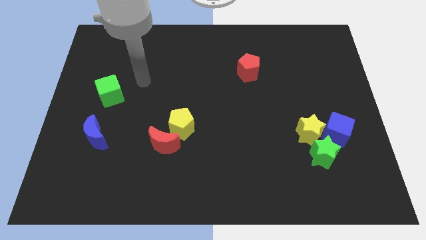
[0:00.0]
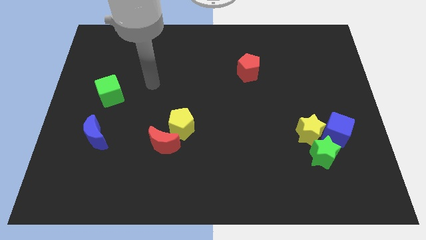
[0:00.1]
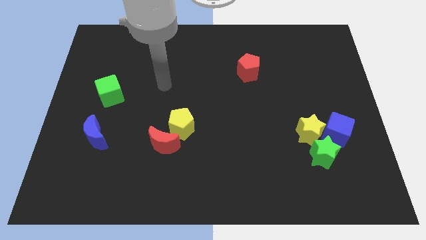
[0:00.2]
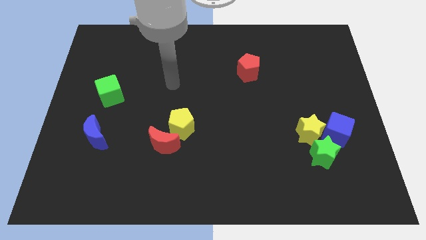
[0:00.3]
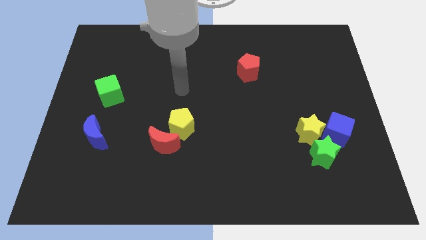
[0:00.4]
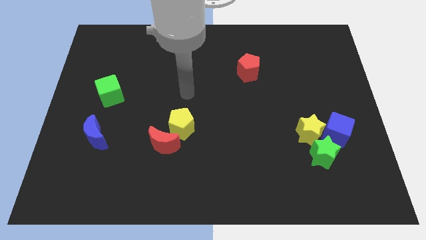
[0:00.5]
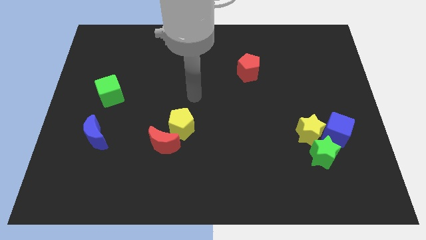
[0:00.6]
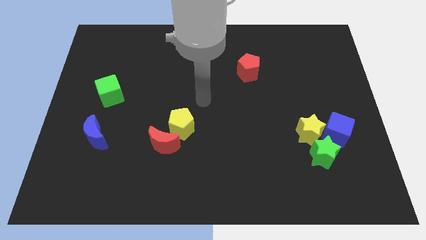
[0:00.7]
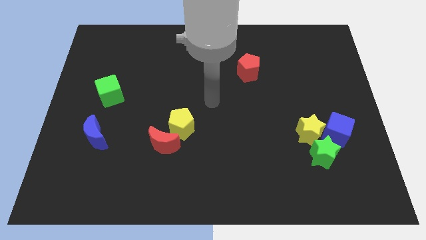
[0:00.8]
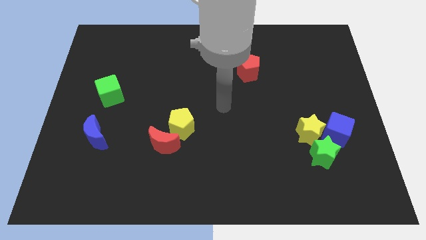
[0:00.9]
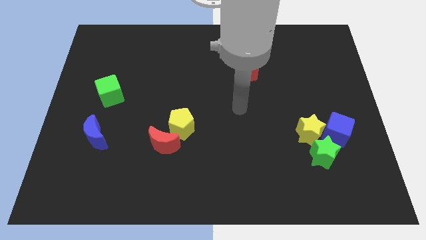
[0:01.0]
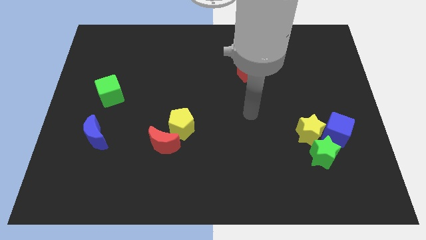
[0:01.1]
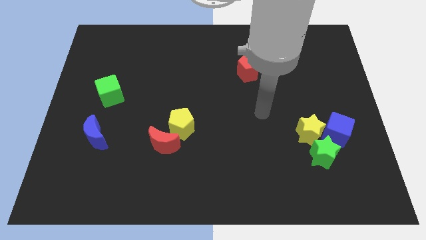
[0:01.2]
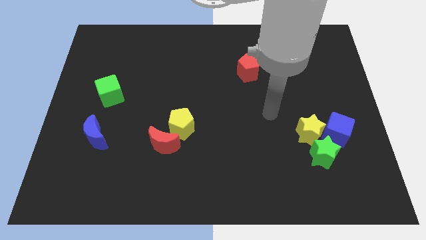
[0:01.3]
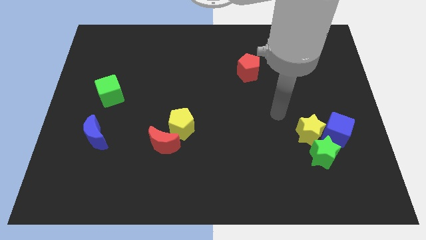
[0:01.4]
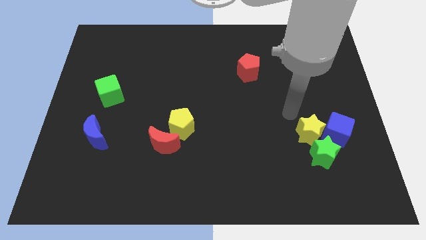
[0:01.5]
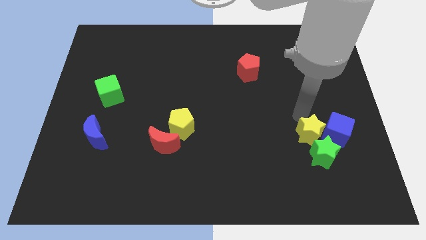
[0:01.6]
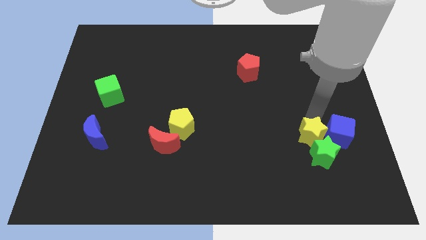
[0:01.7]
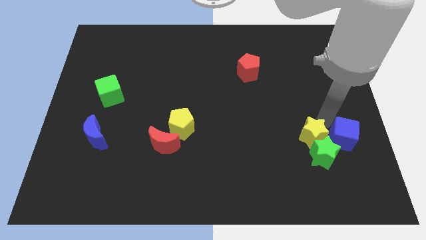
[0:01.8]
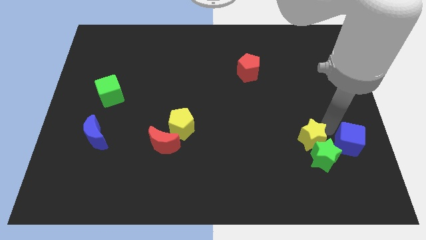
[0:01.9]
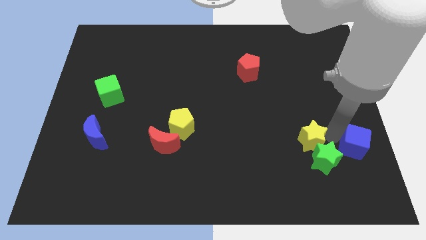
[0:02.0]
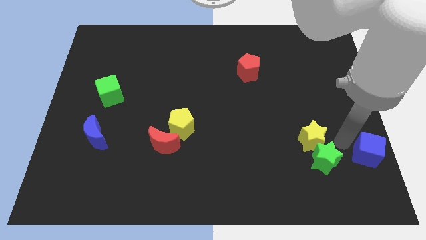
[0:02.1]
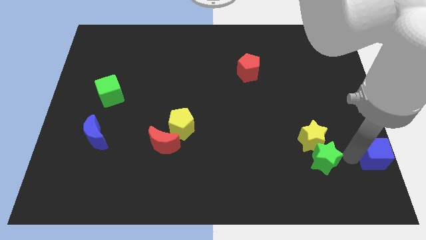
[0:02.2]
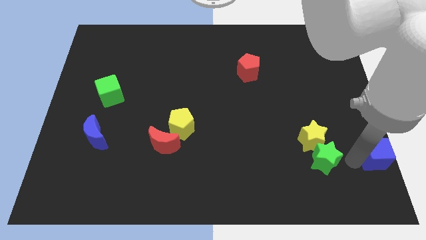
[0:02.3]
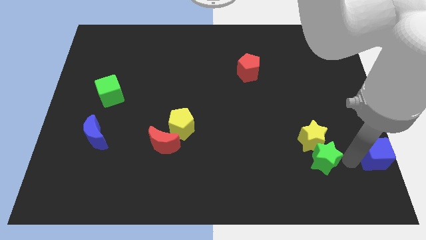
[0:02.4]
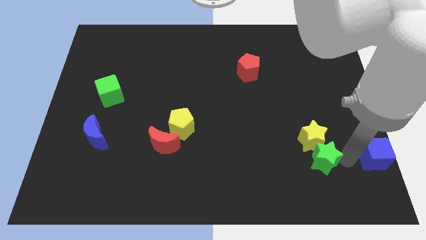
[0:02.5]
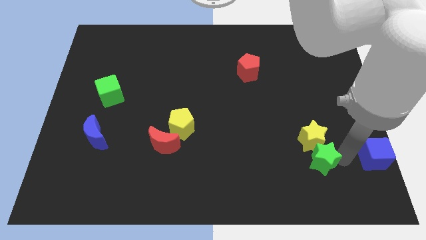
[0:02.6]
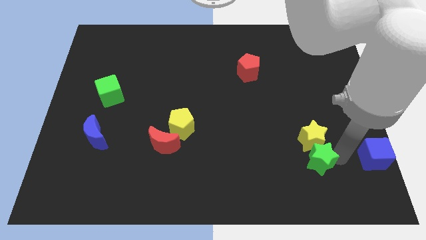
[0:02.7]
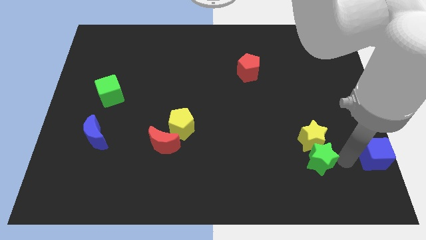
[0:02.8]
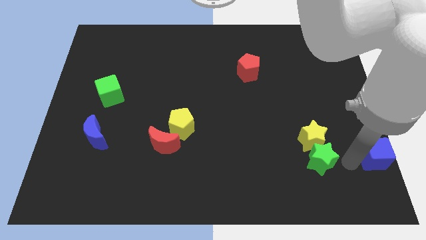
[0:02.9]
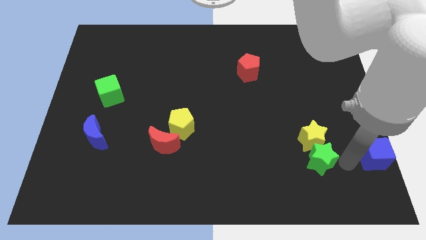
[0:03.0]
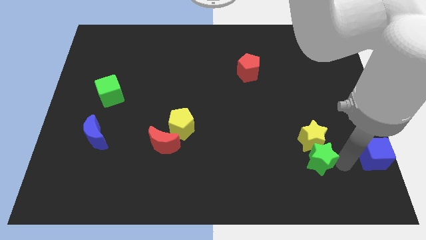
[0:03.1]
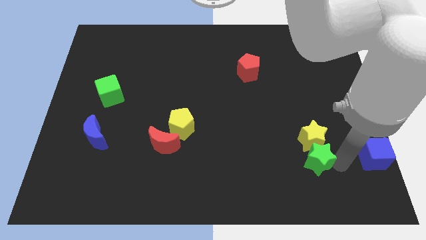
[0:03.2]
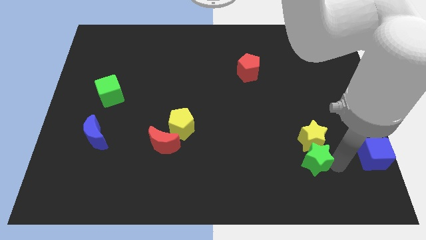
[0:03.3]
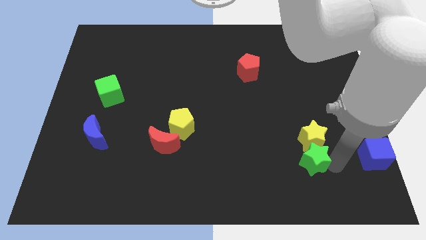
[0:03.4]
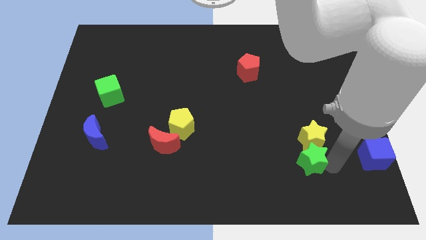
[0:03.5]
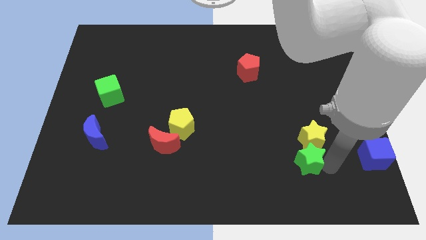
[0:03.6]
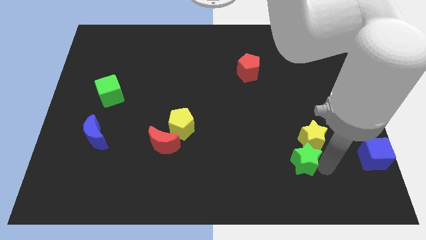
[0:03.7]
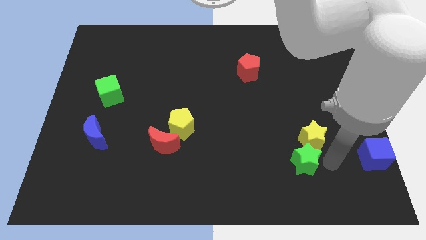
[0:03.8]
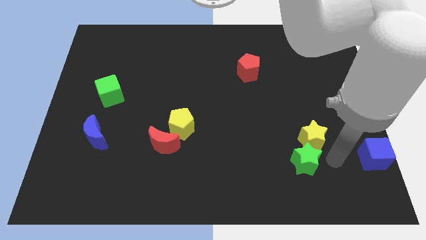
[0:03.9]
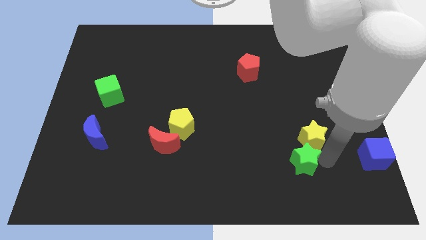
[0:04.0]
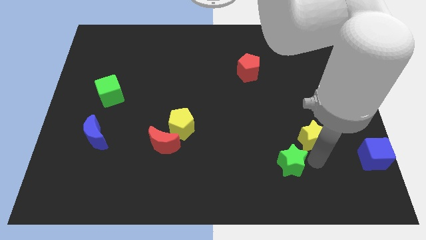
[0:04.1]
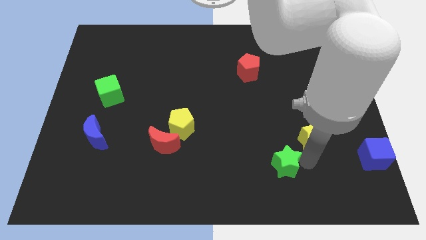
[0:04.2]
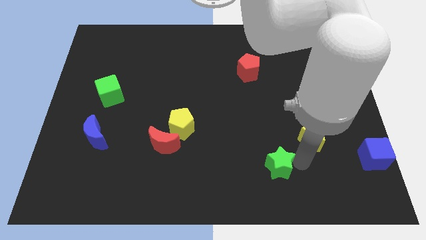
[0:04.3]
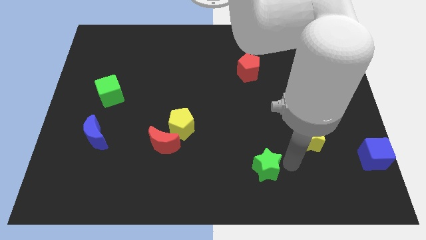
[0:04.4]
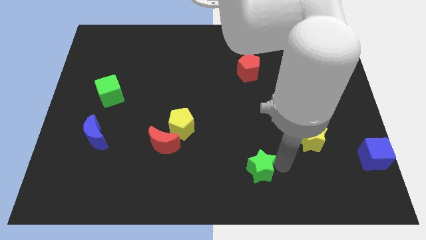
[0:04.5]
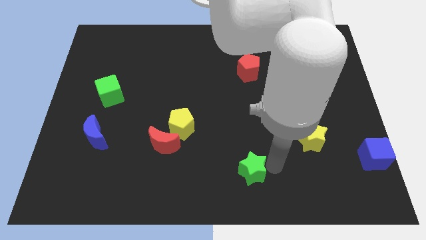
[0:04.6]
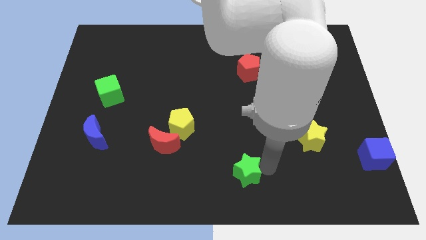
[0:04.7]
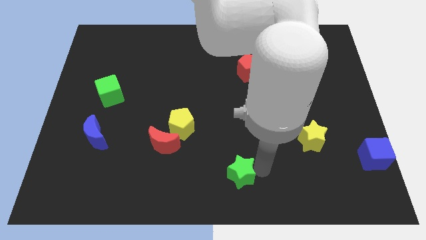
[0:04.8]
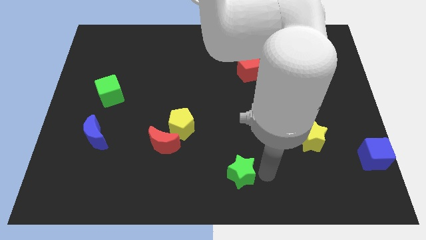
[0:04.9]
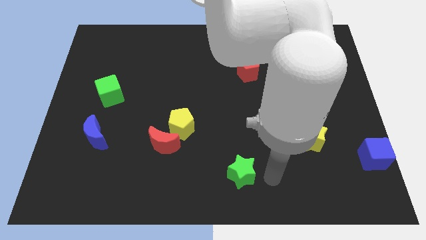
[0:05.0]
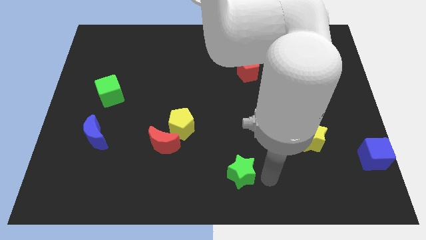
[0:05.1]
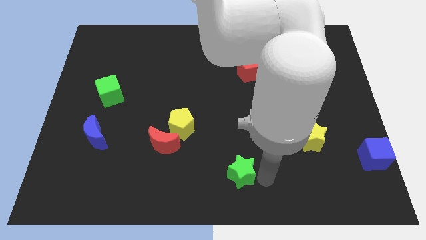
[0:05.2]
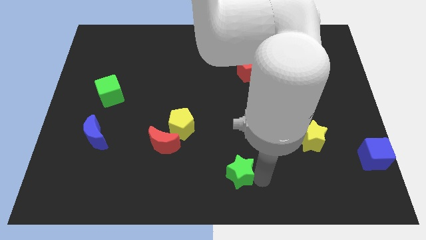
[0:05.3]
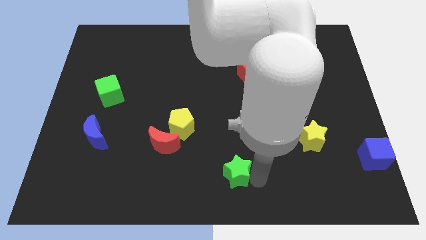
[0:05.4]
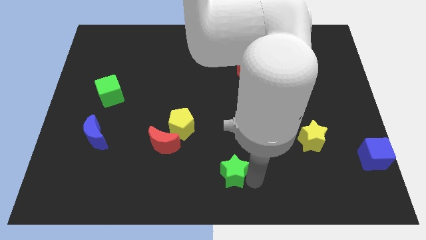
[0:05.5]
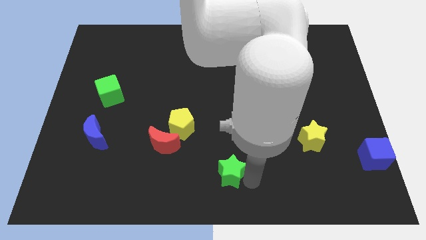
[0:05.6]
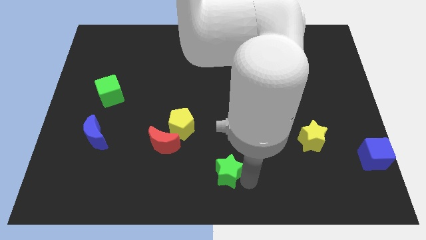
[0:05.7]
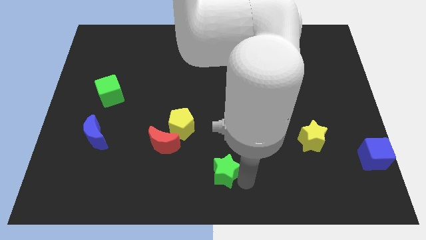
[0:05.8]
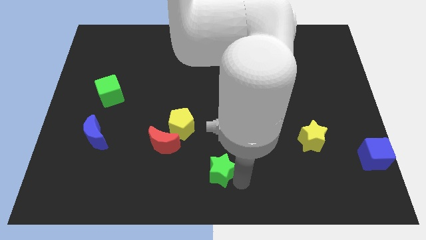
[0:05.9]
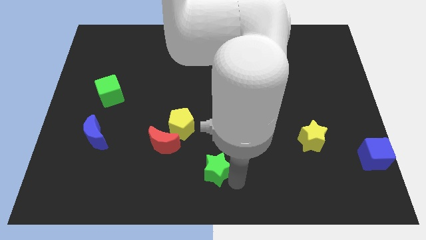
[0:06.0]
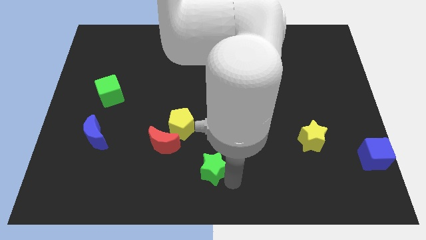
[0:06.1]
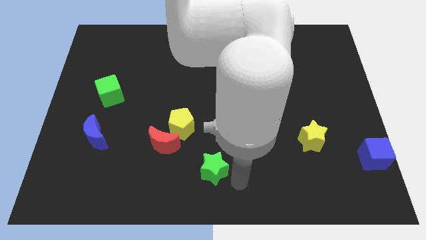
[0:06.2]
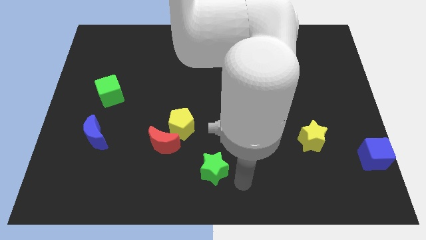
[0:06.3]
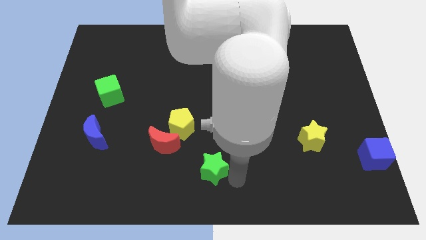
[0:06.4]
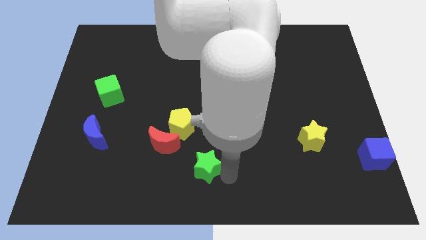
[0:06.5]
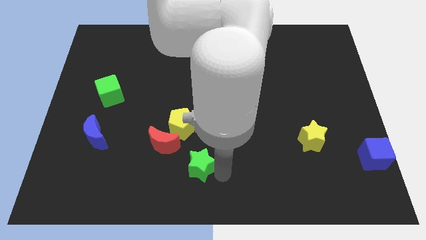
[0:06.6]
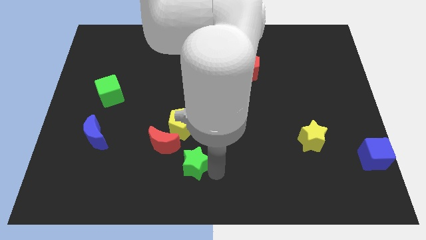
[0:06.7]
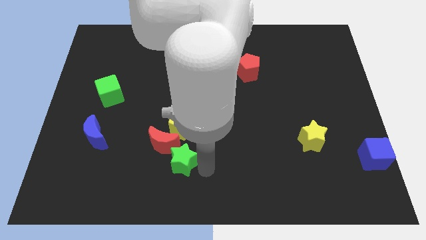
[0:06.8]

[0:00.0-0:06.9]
push the green star close to the red moon

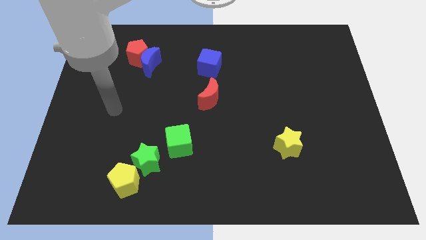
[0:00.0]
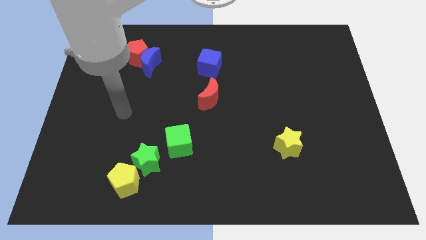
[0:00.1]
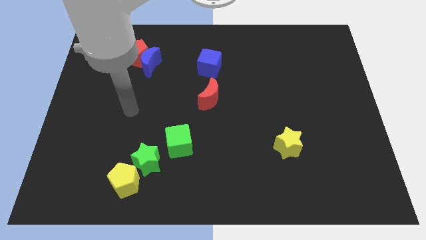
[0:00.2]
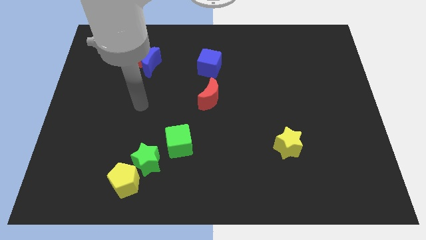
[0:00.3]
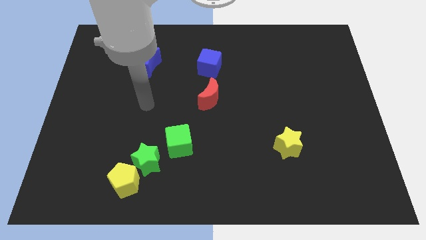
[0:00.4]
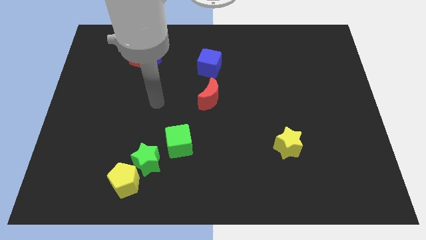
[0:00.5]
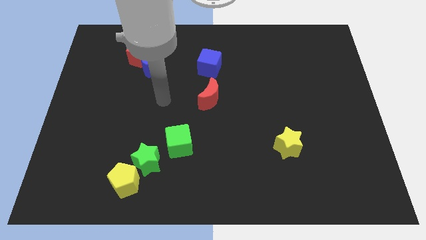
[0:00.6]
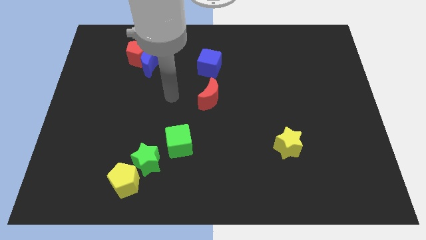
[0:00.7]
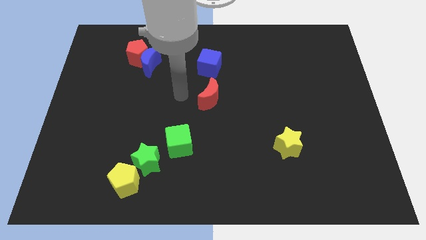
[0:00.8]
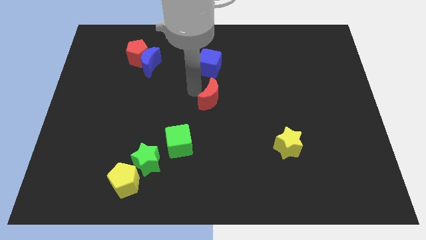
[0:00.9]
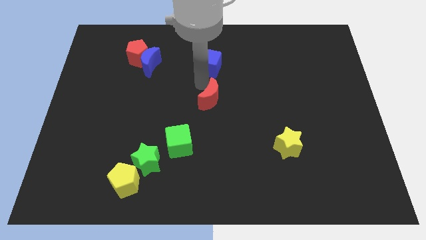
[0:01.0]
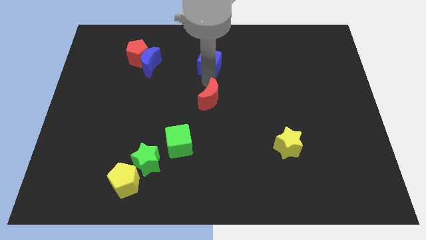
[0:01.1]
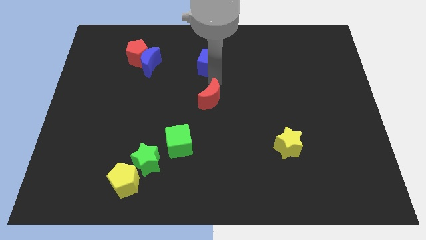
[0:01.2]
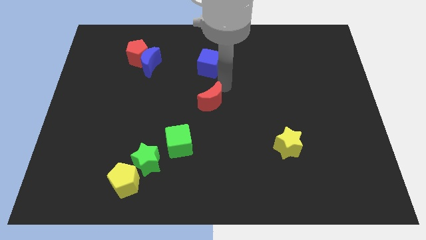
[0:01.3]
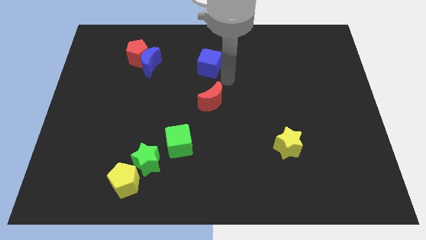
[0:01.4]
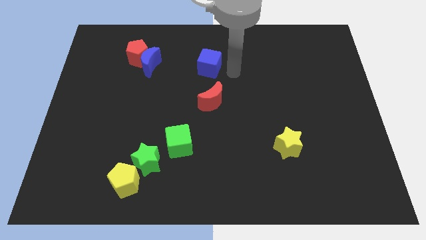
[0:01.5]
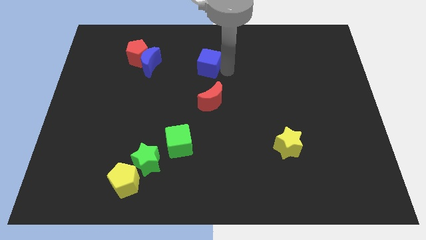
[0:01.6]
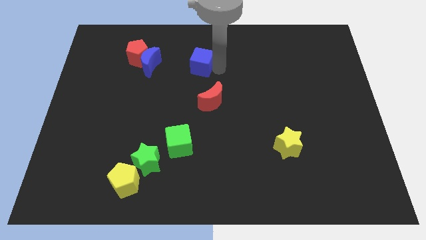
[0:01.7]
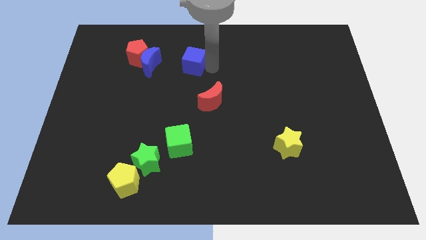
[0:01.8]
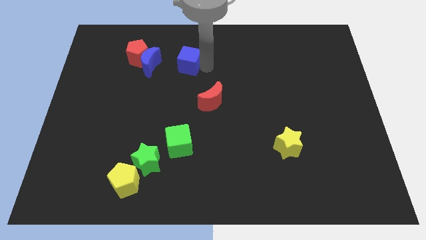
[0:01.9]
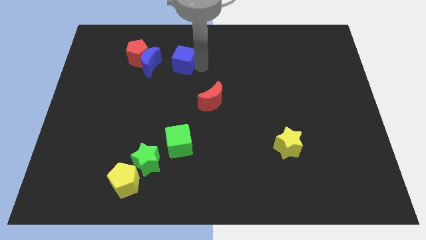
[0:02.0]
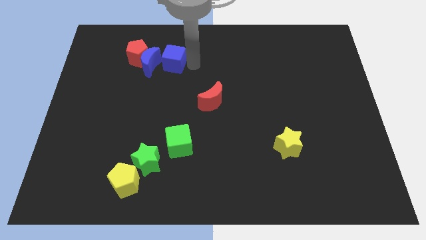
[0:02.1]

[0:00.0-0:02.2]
slide the blue cube towards the blue moon
